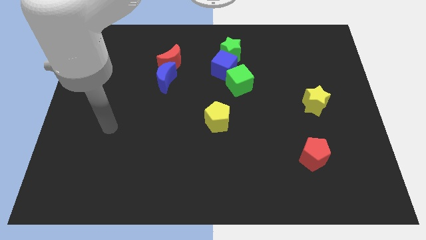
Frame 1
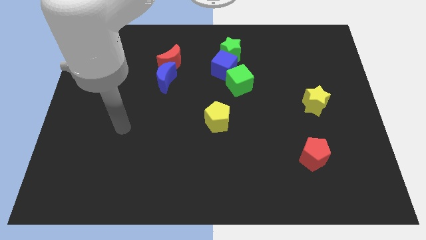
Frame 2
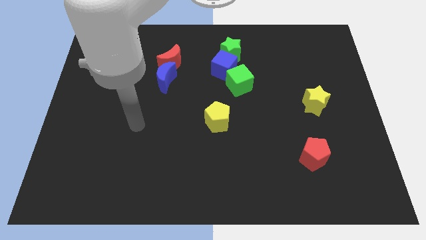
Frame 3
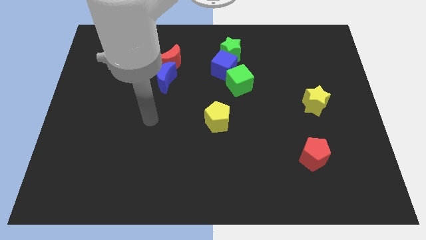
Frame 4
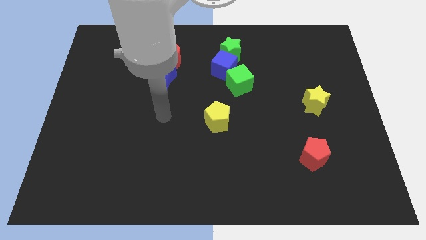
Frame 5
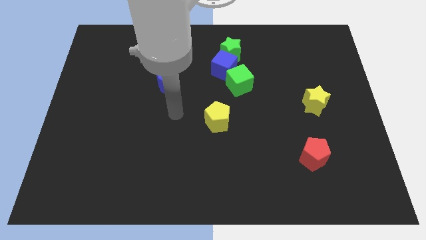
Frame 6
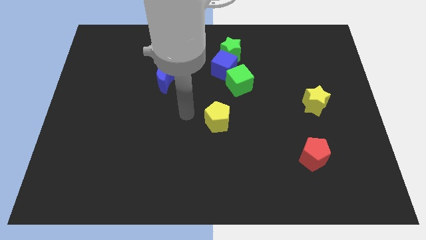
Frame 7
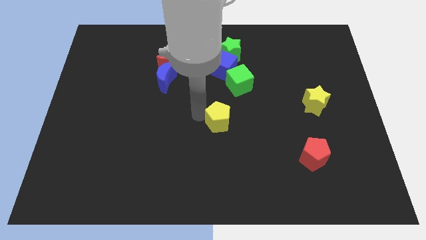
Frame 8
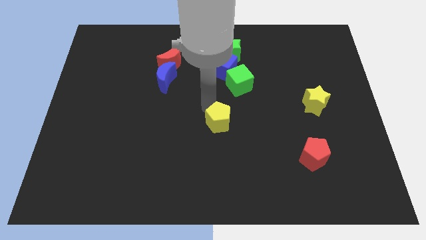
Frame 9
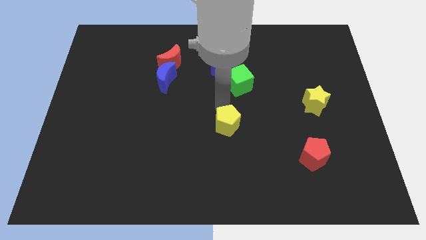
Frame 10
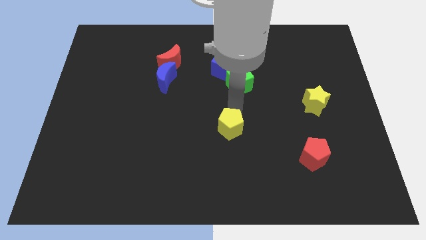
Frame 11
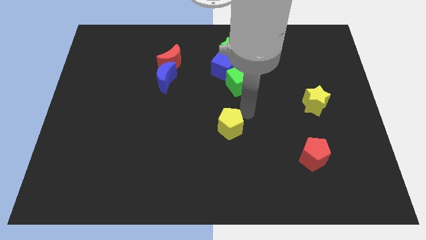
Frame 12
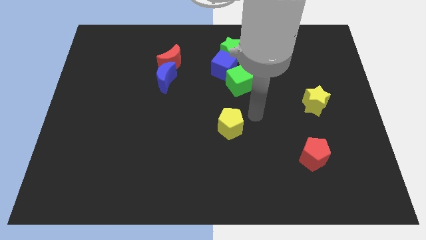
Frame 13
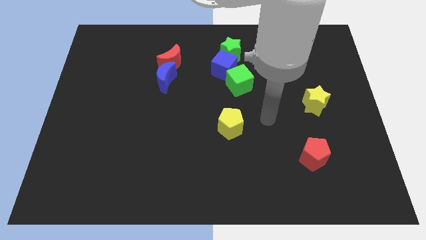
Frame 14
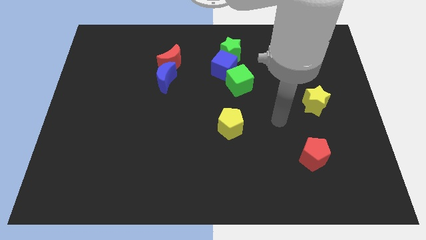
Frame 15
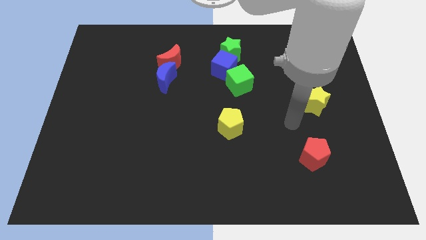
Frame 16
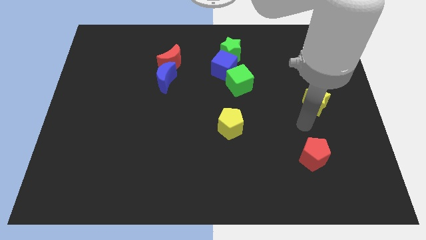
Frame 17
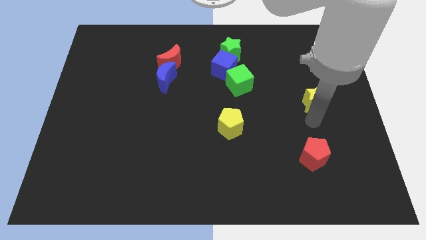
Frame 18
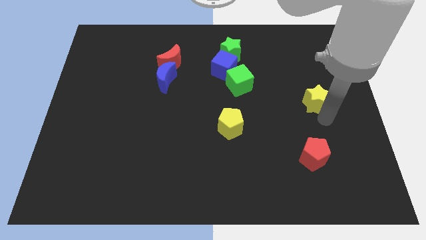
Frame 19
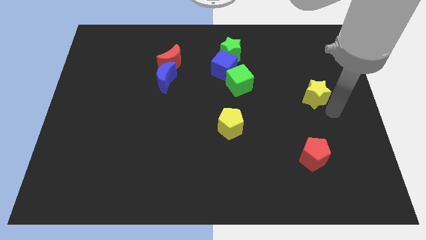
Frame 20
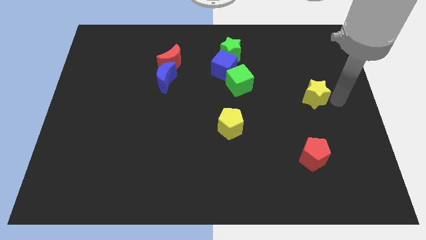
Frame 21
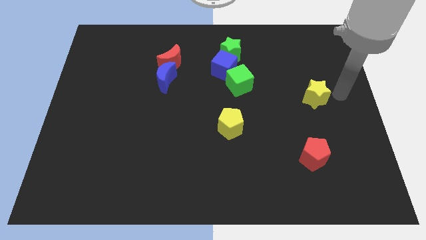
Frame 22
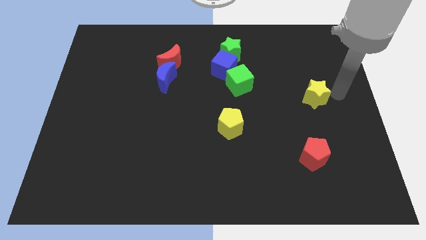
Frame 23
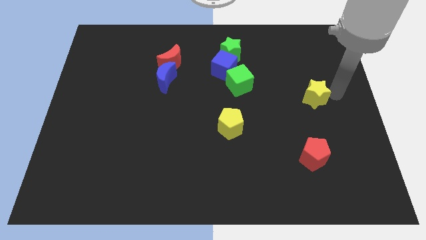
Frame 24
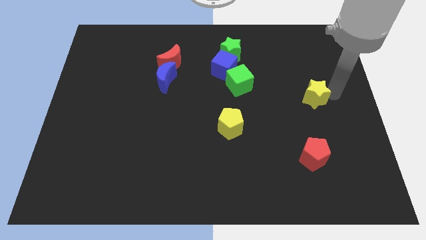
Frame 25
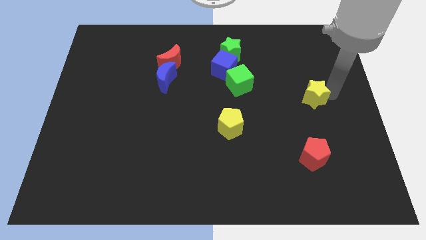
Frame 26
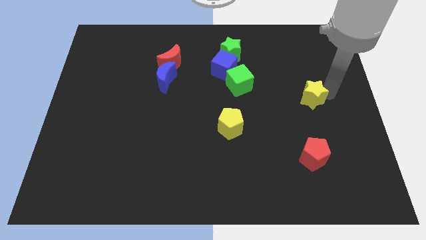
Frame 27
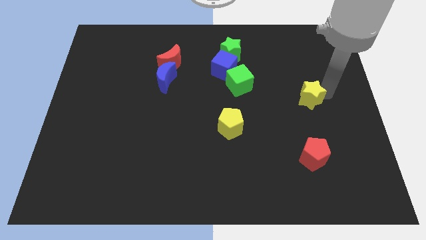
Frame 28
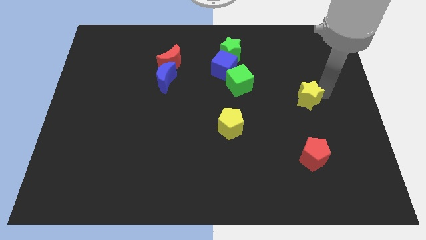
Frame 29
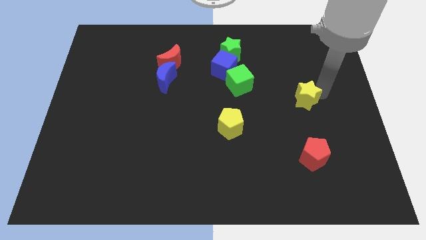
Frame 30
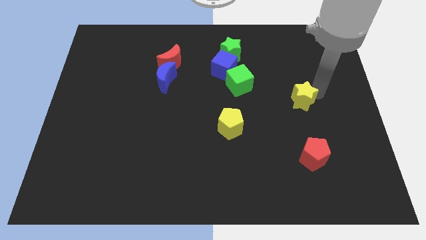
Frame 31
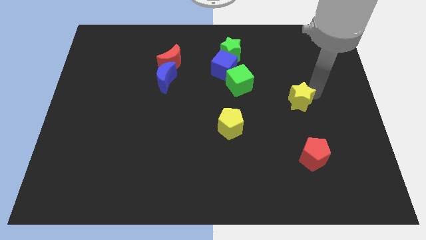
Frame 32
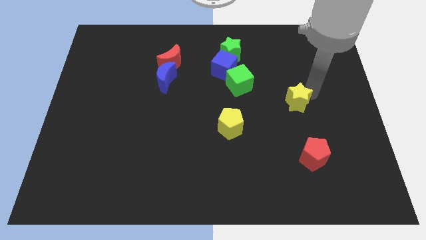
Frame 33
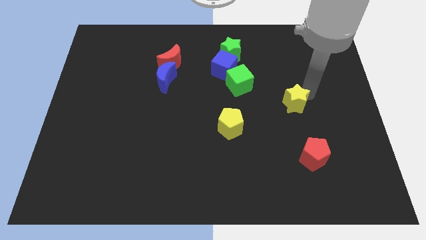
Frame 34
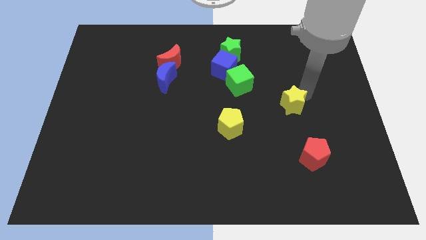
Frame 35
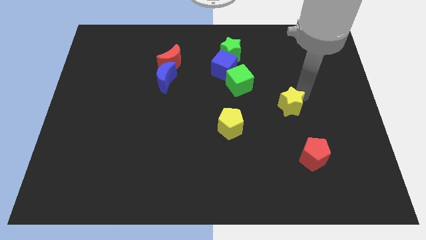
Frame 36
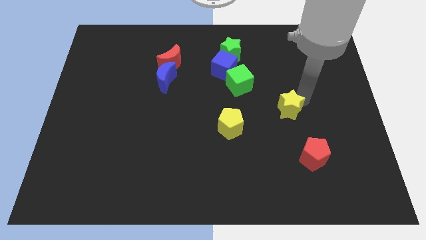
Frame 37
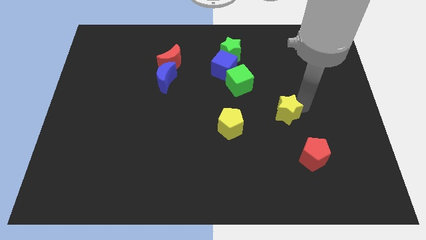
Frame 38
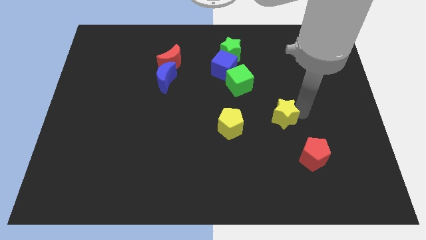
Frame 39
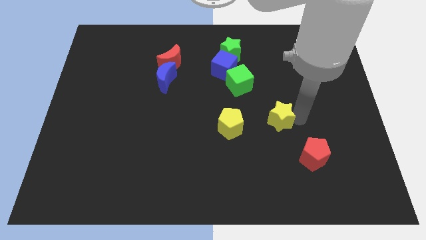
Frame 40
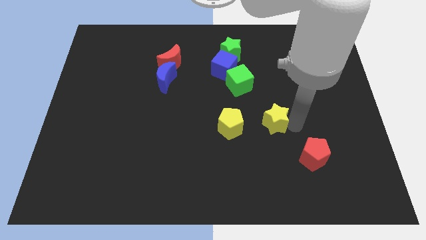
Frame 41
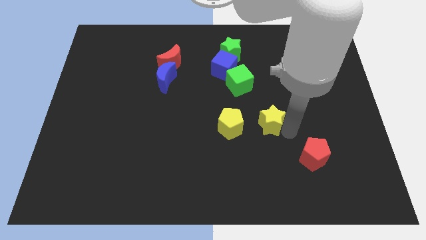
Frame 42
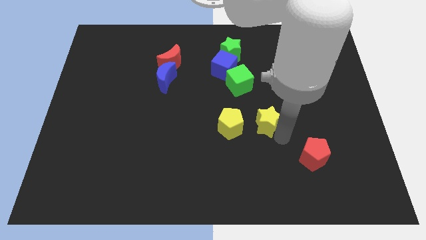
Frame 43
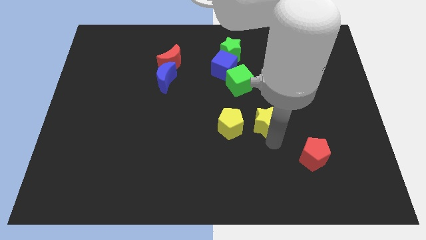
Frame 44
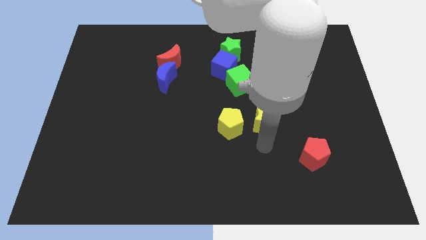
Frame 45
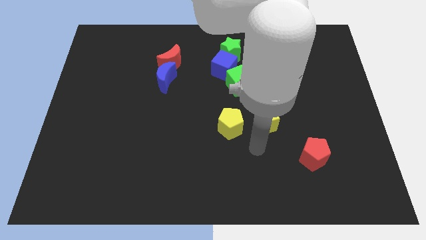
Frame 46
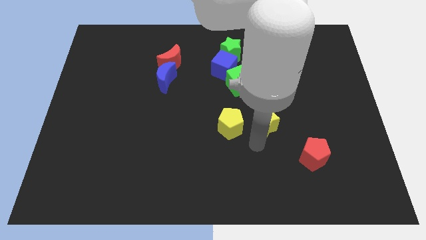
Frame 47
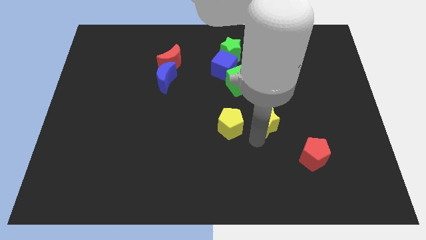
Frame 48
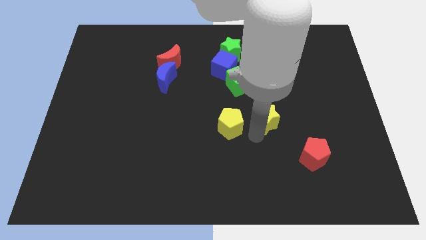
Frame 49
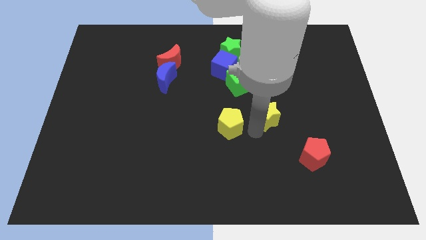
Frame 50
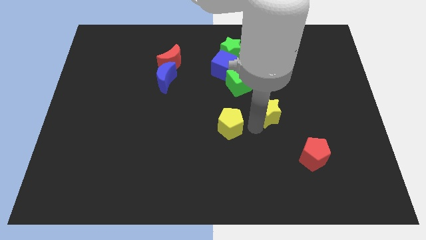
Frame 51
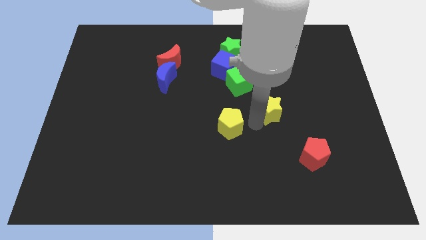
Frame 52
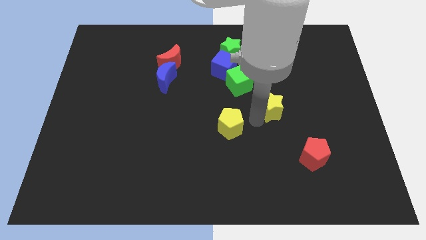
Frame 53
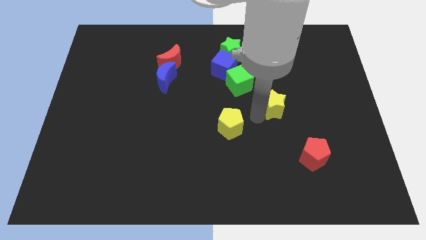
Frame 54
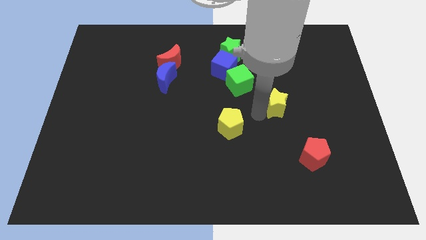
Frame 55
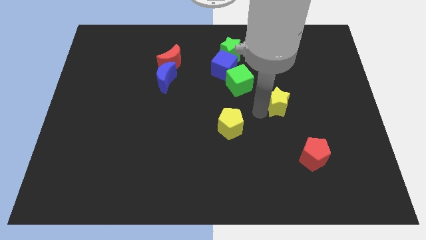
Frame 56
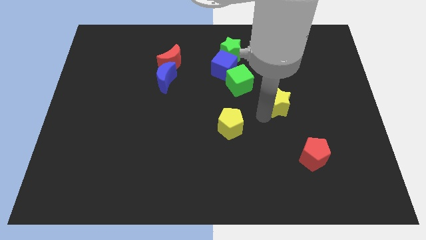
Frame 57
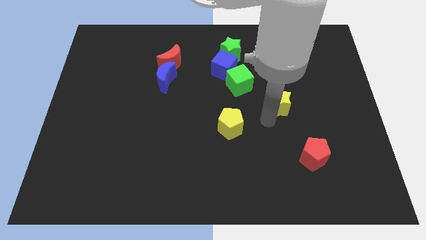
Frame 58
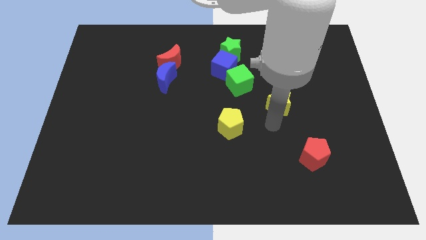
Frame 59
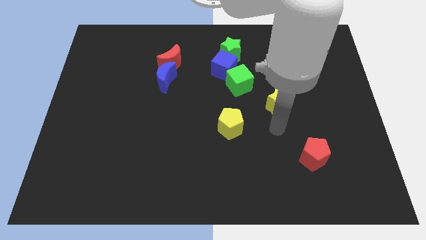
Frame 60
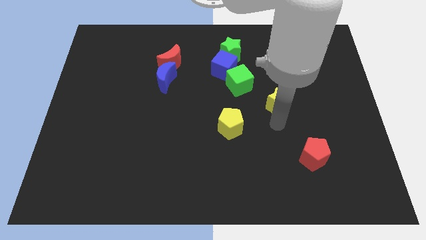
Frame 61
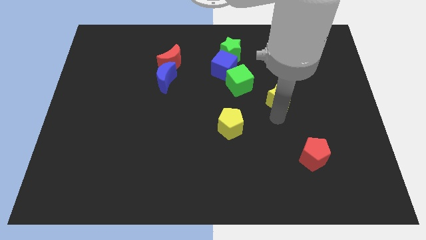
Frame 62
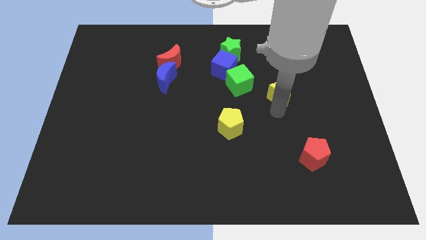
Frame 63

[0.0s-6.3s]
push the yellow star upwards and to the left diagonally a little bit

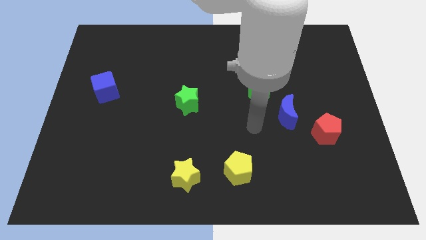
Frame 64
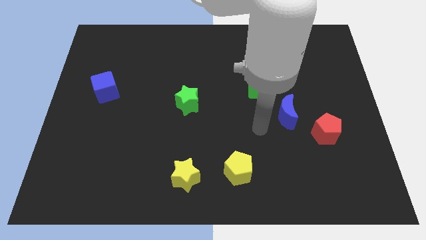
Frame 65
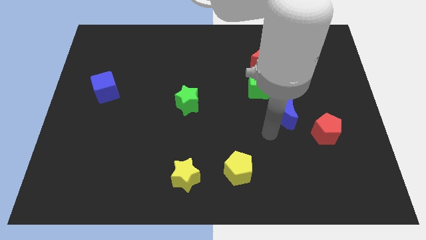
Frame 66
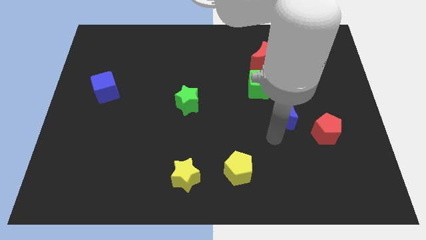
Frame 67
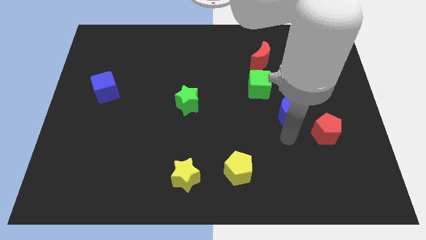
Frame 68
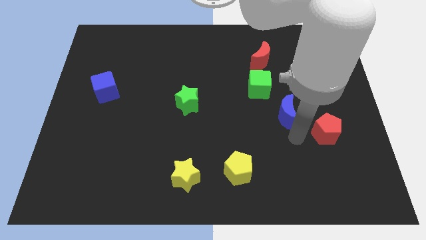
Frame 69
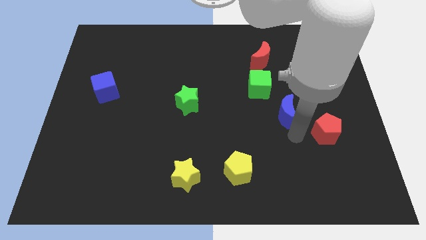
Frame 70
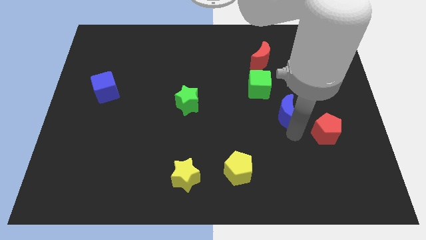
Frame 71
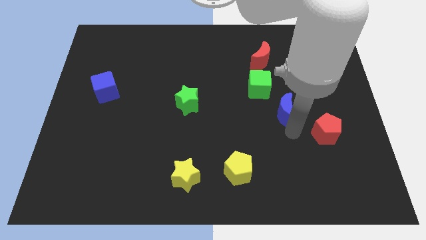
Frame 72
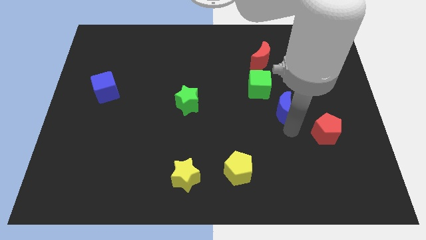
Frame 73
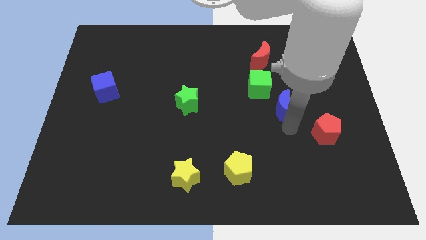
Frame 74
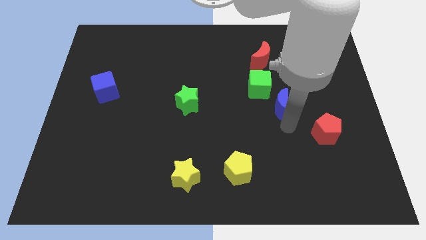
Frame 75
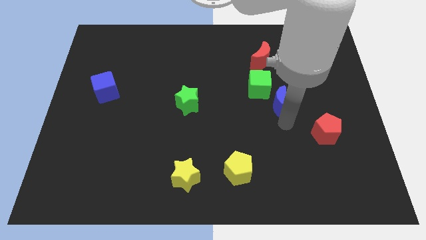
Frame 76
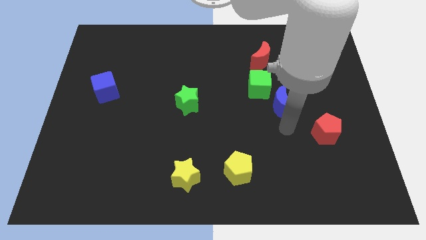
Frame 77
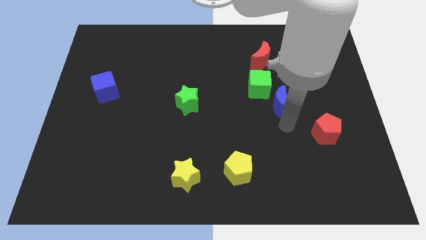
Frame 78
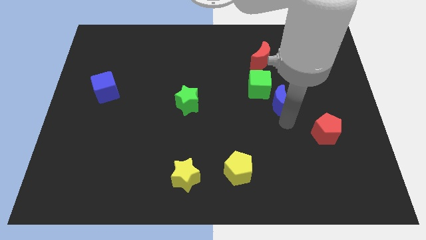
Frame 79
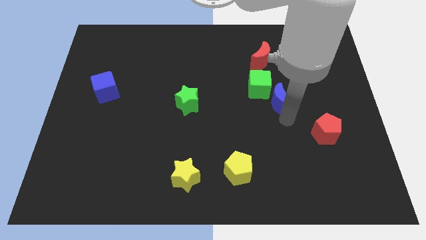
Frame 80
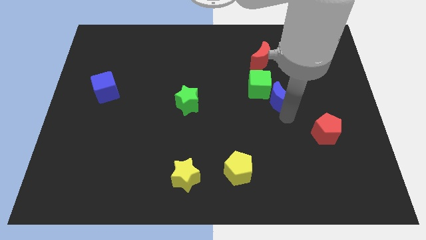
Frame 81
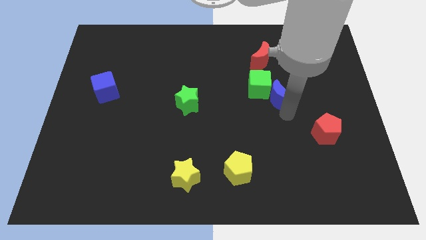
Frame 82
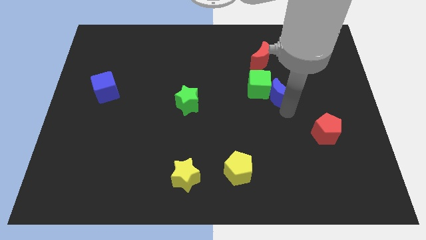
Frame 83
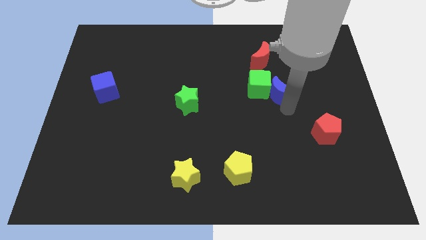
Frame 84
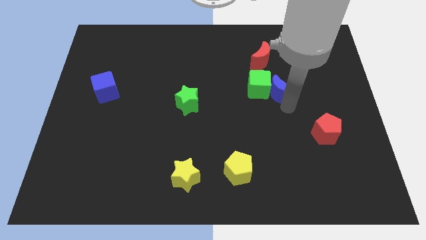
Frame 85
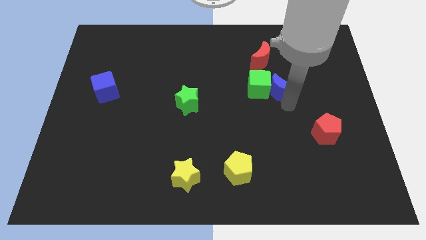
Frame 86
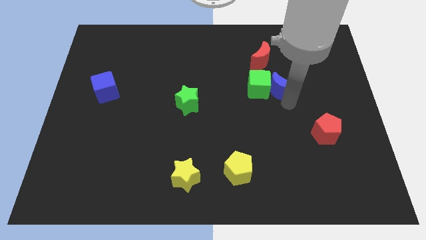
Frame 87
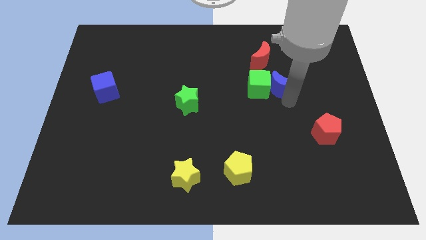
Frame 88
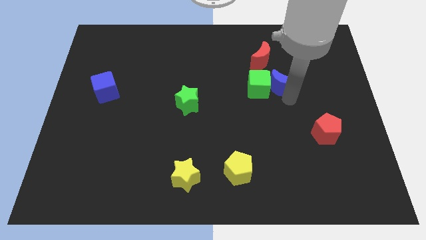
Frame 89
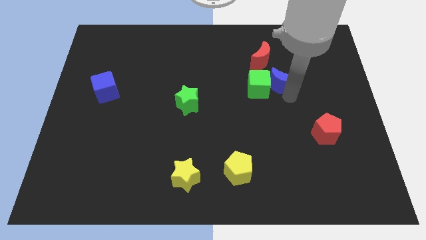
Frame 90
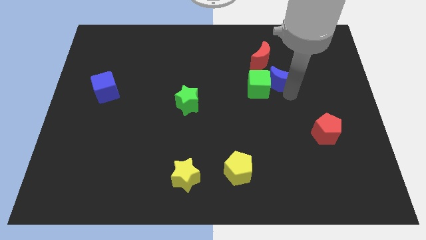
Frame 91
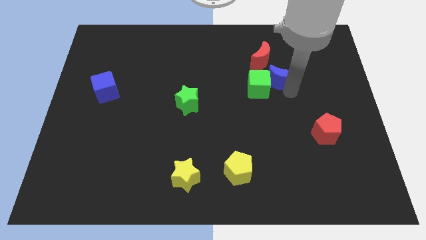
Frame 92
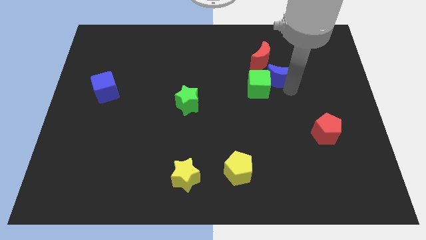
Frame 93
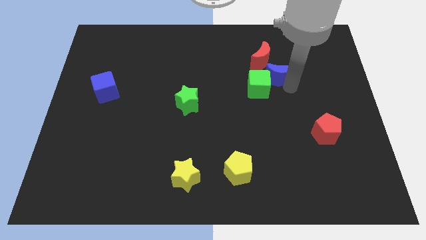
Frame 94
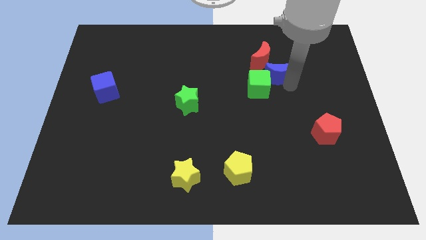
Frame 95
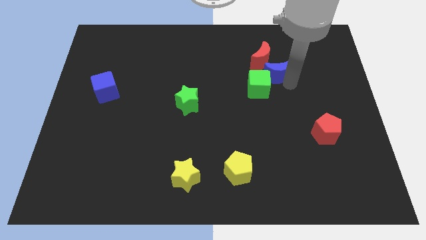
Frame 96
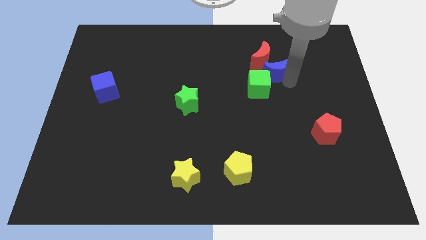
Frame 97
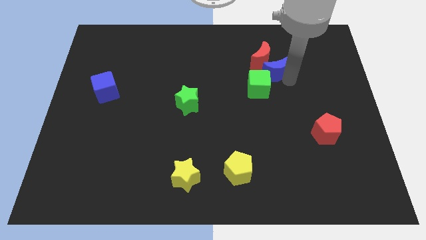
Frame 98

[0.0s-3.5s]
slightly move the blue moon up and left diagonally
